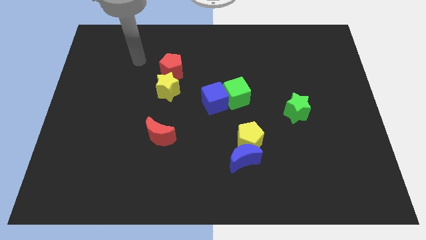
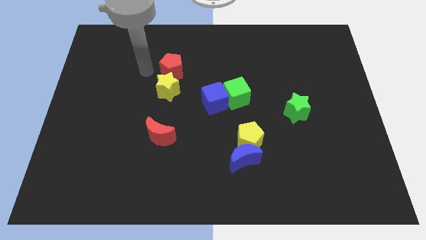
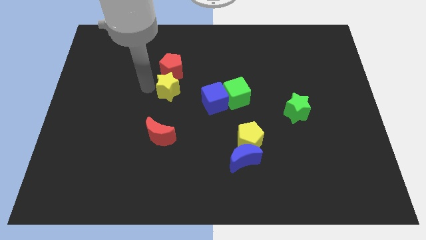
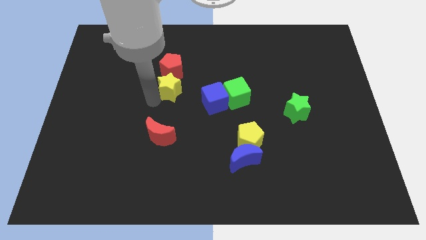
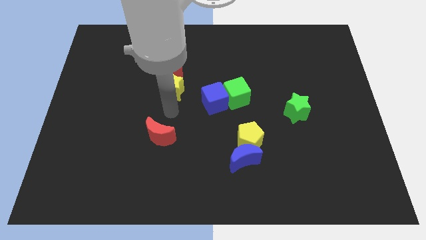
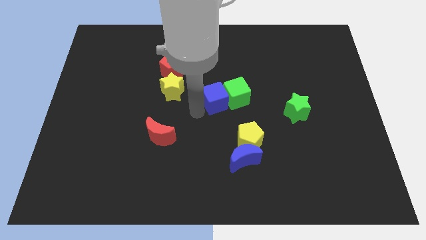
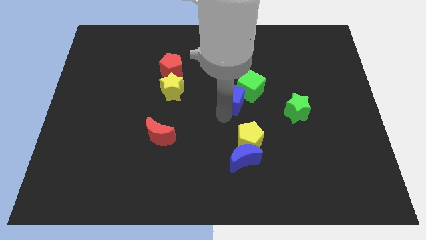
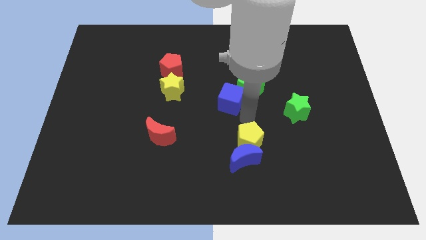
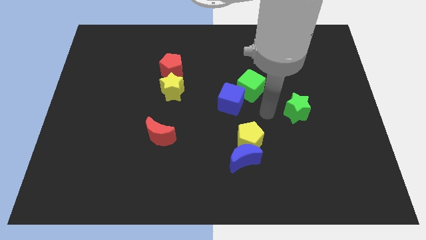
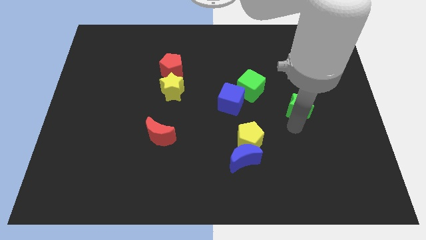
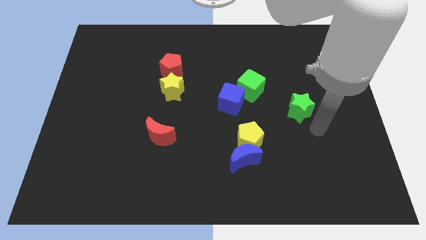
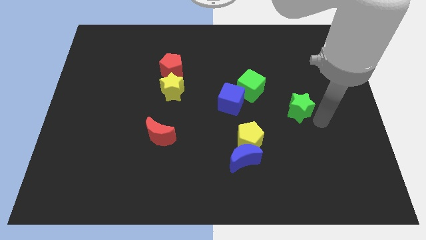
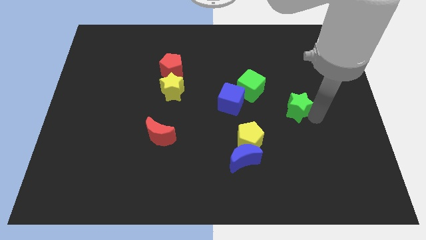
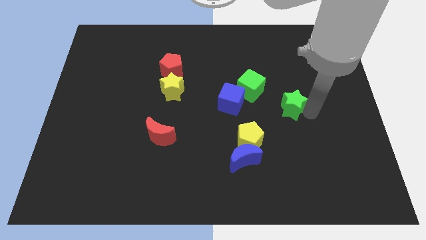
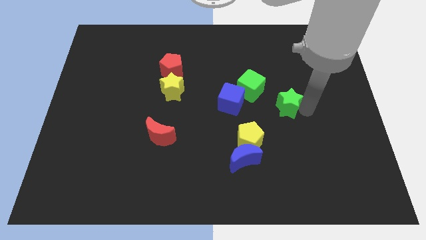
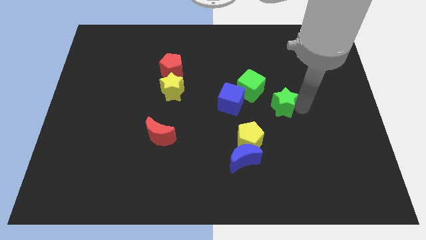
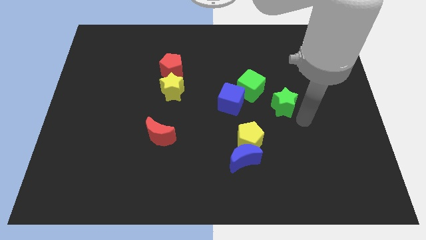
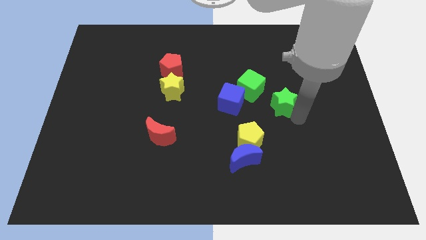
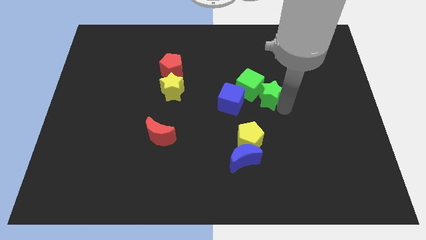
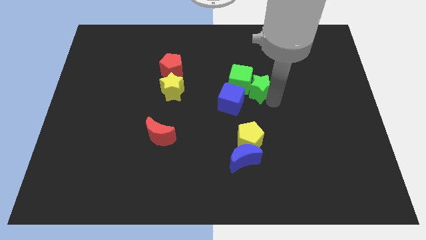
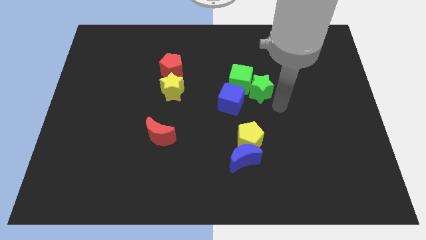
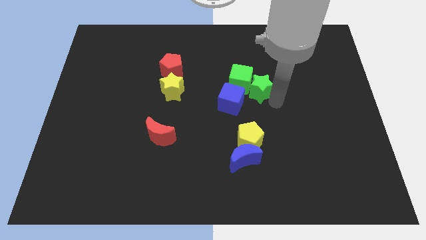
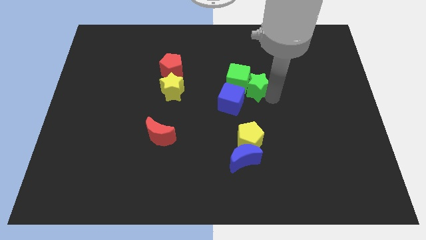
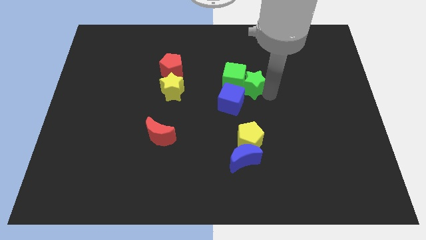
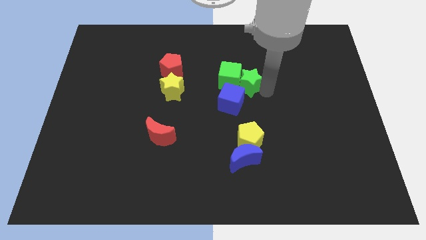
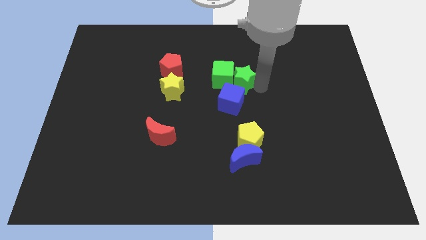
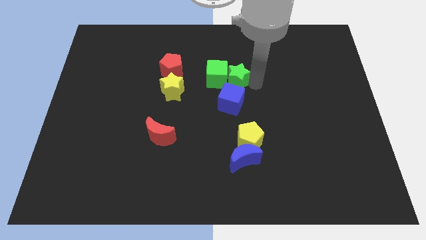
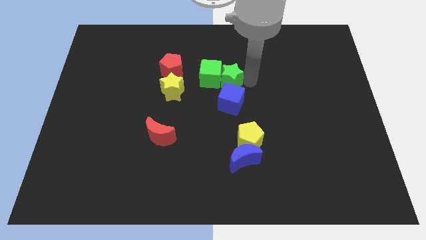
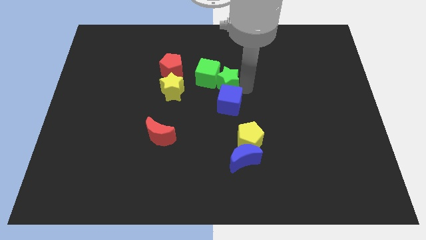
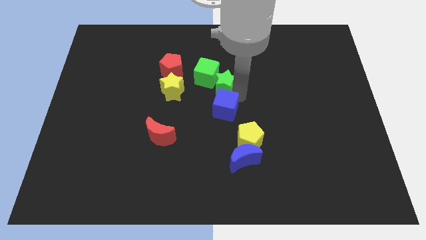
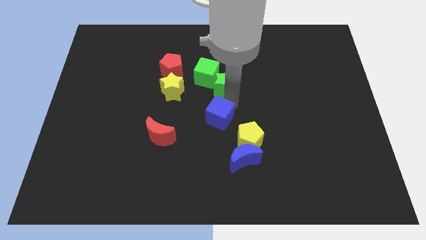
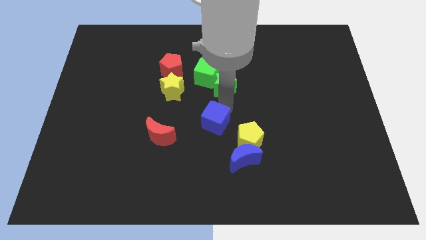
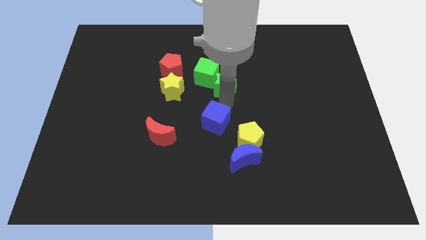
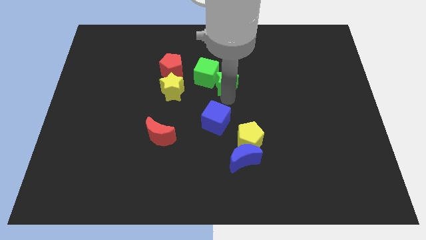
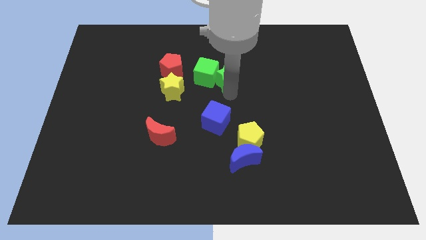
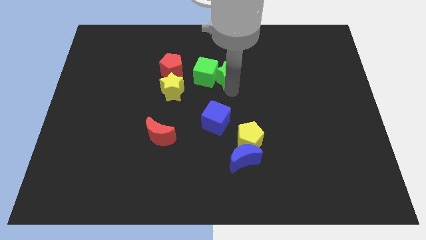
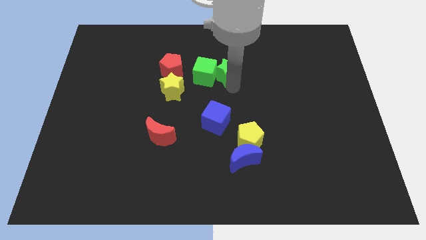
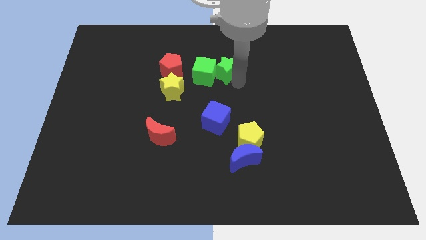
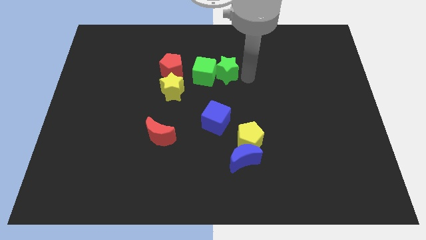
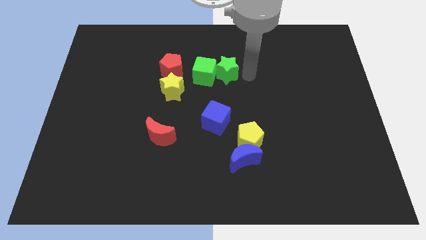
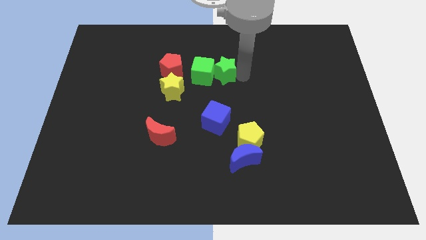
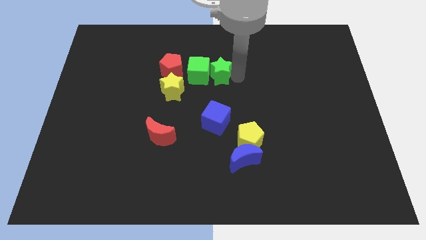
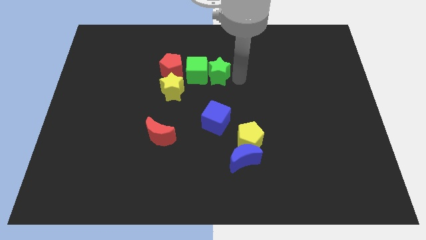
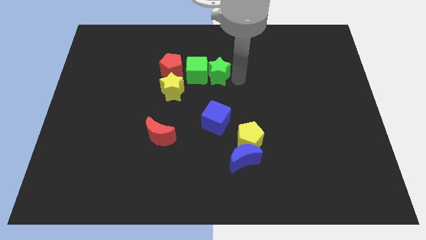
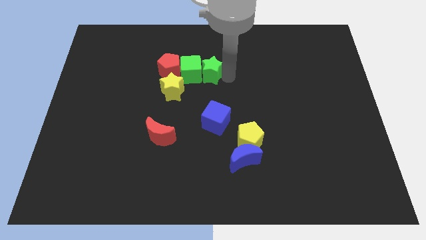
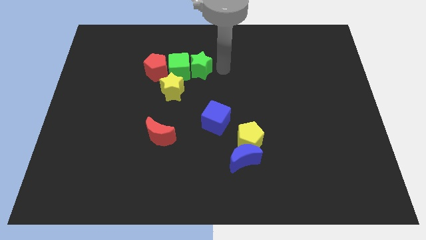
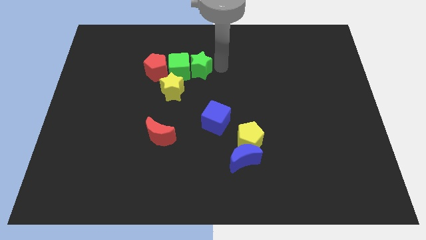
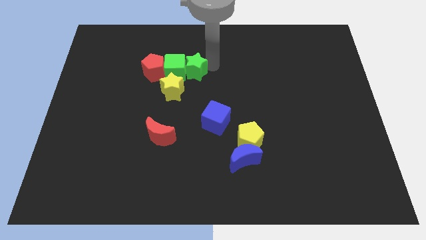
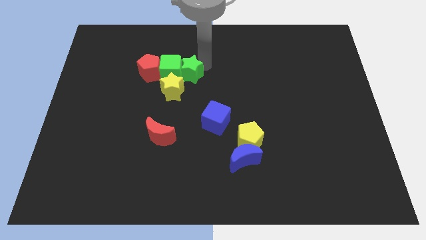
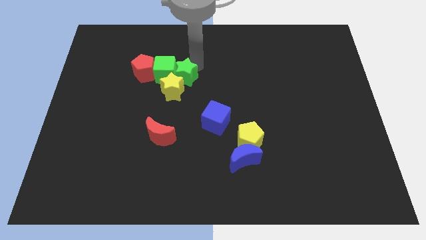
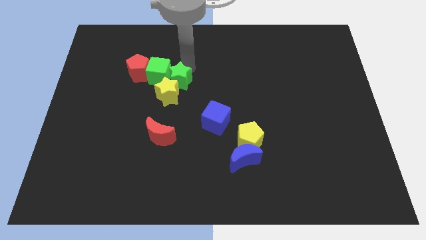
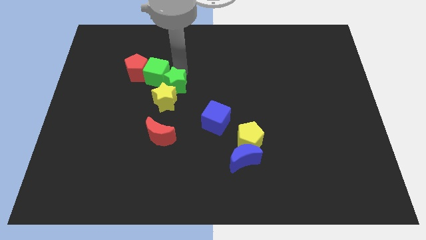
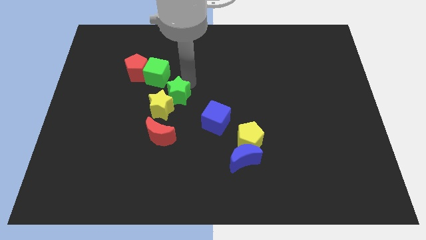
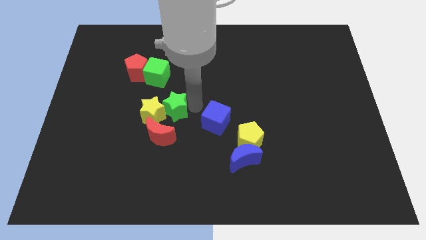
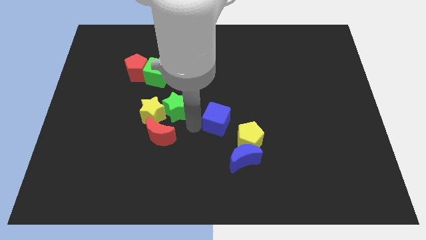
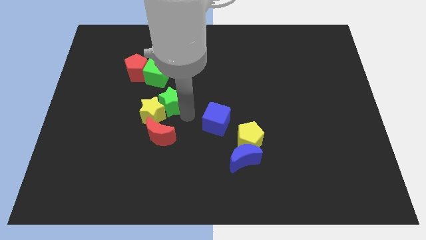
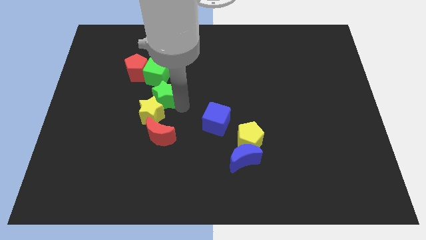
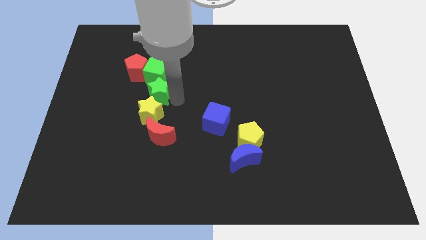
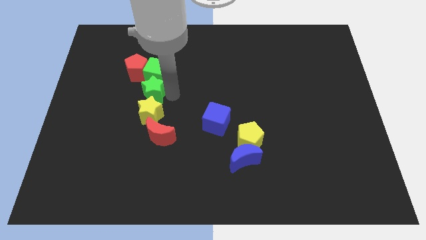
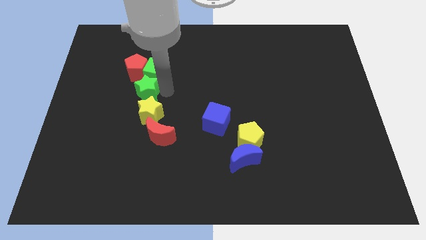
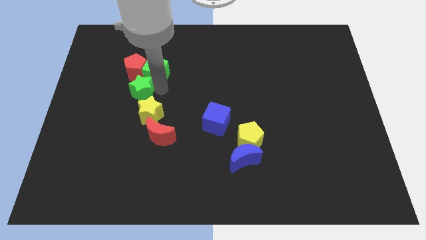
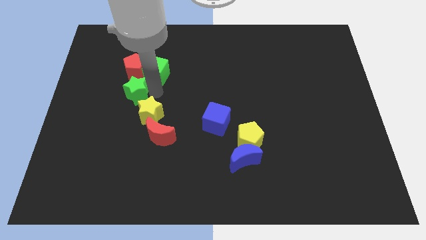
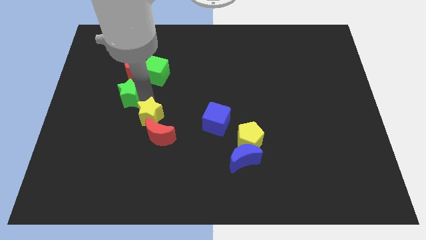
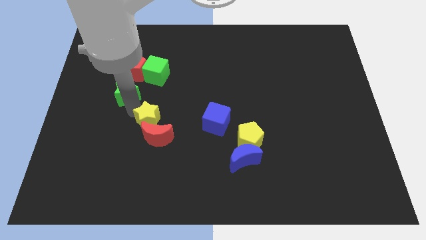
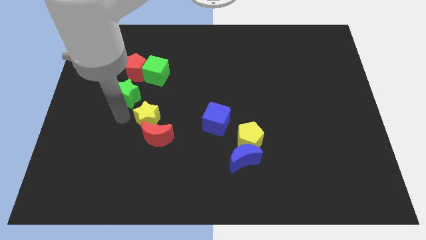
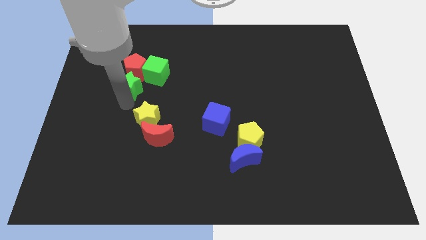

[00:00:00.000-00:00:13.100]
put the green star towards the red pentagon

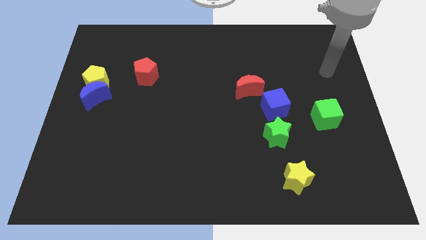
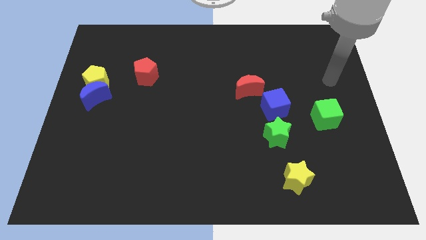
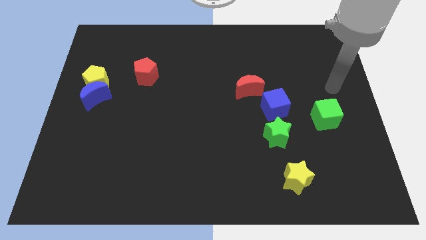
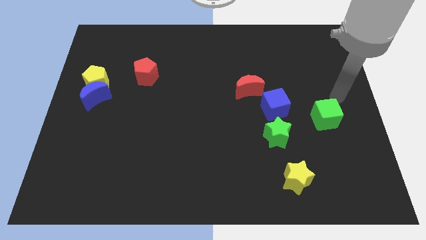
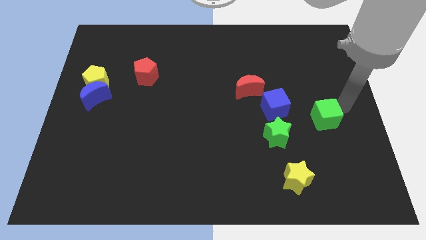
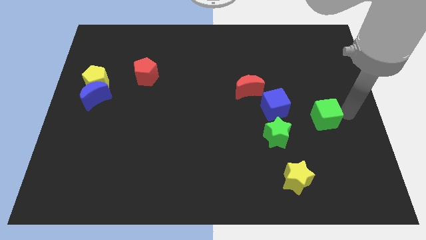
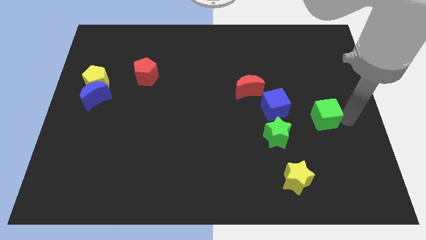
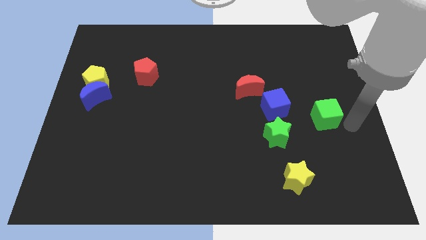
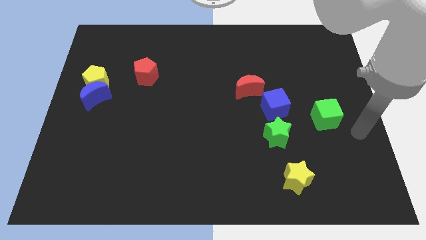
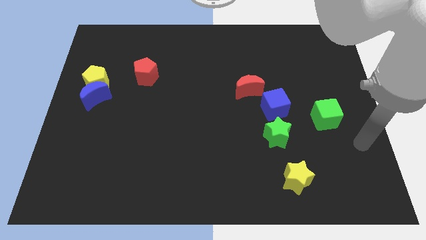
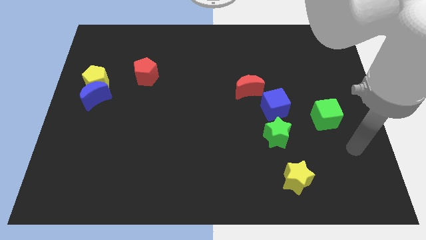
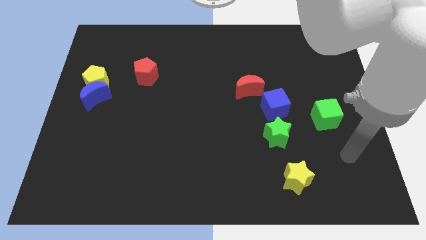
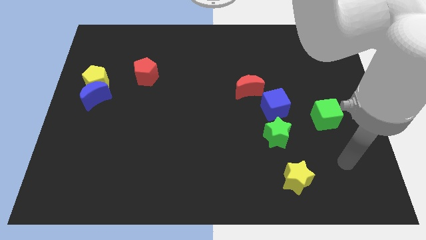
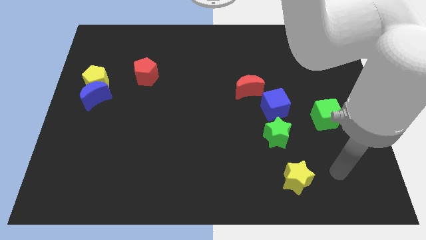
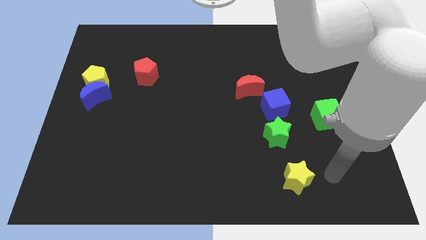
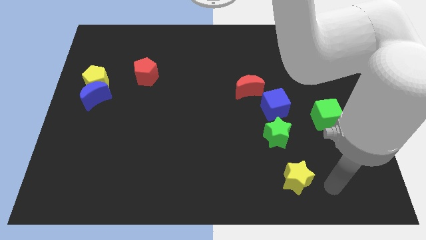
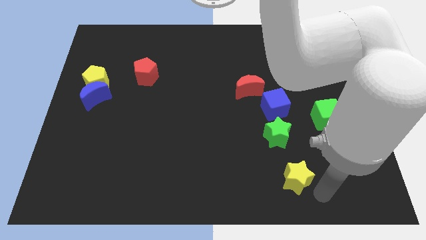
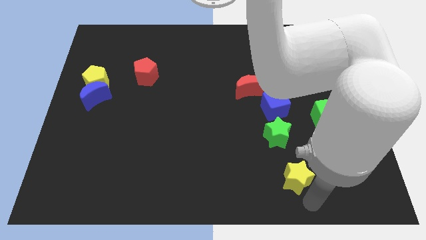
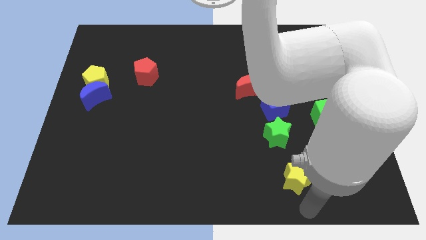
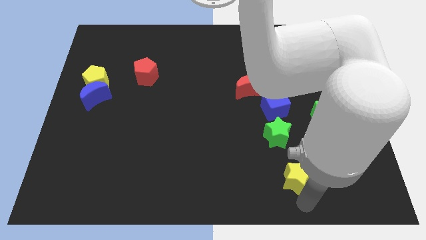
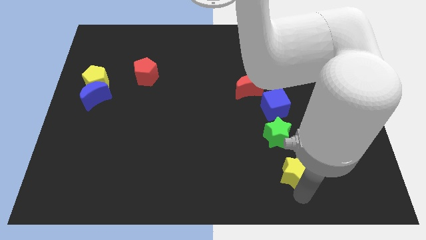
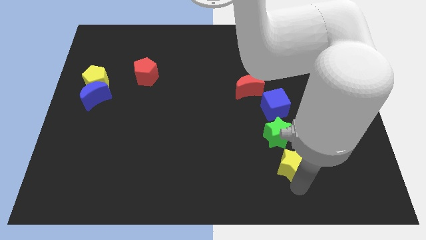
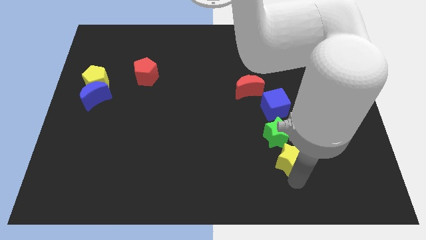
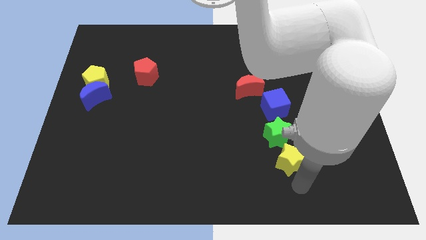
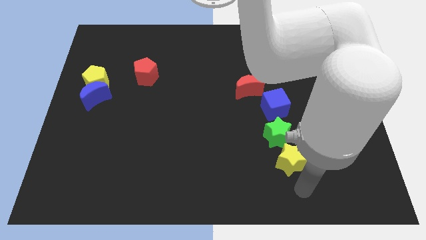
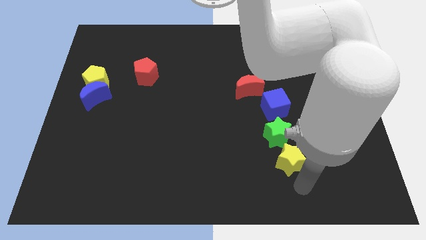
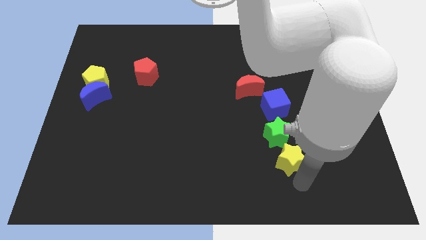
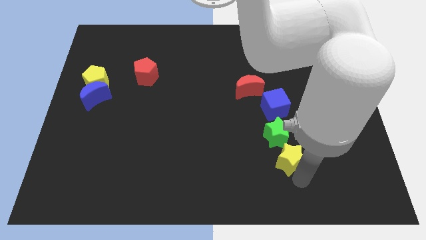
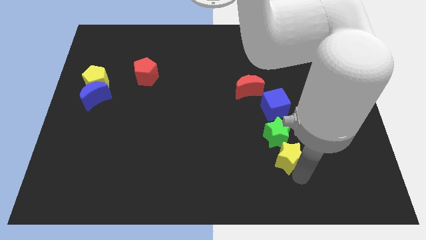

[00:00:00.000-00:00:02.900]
slide the yellow star next to the green star
